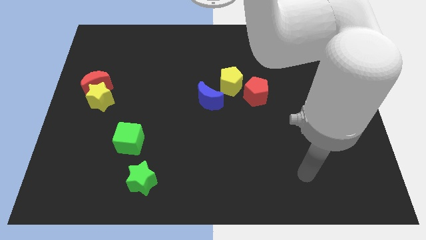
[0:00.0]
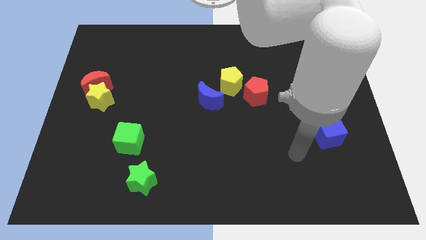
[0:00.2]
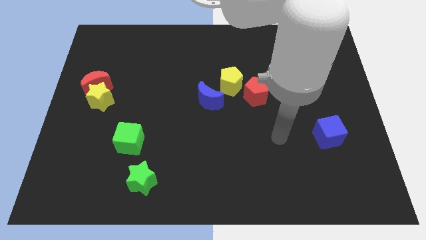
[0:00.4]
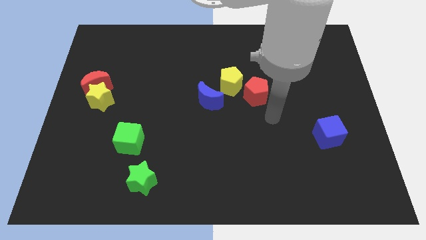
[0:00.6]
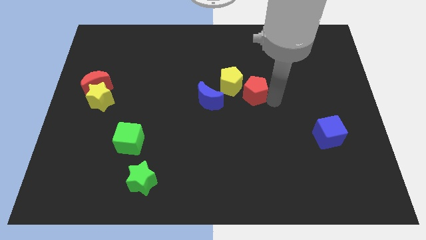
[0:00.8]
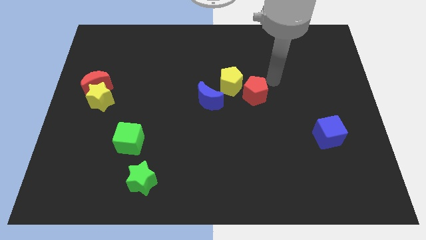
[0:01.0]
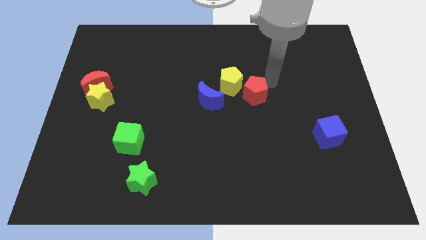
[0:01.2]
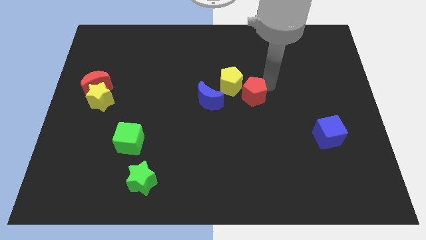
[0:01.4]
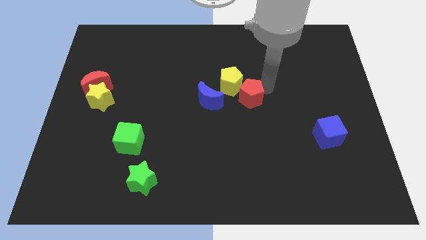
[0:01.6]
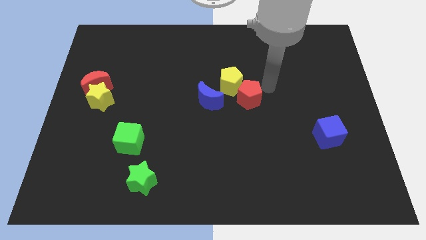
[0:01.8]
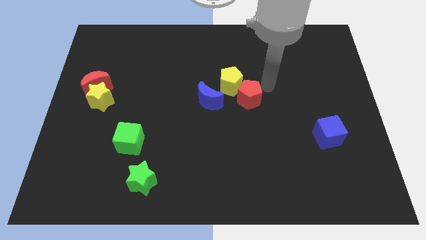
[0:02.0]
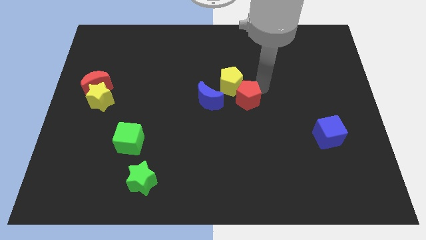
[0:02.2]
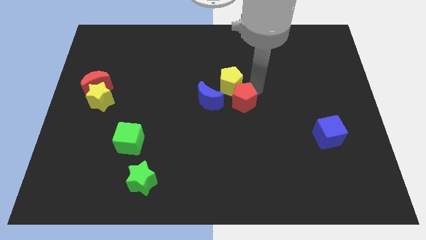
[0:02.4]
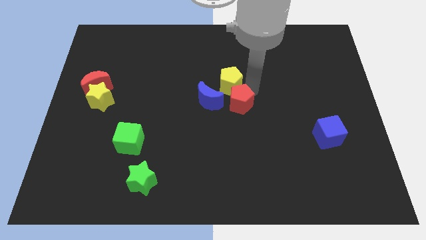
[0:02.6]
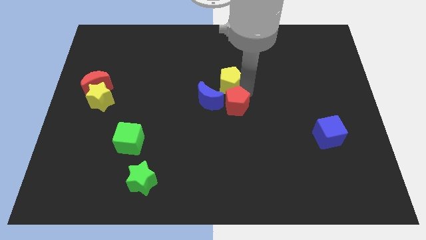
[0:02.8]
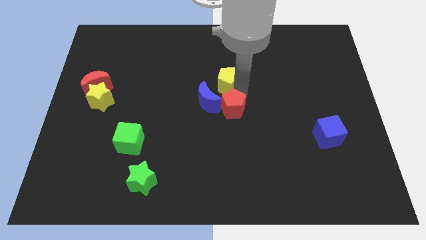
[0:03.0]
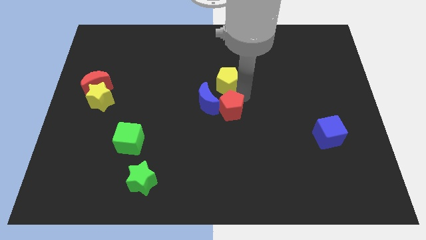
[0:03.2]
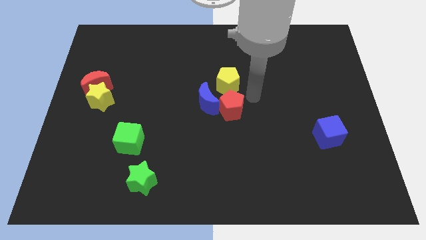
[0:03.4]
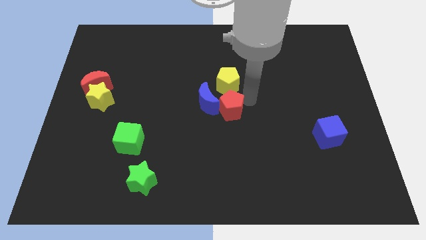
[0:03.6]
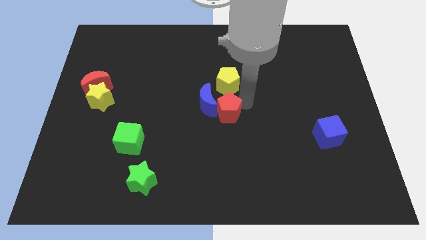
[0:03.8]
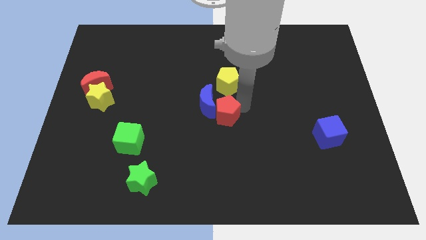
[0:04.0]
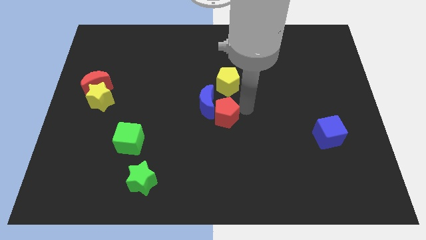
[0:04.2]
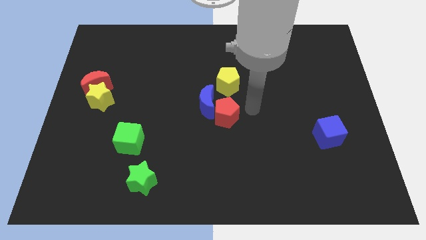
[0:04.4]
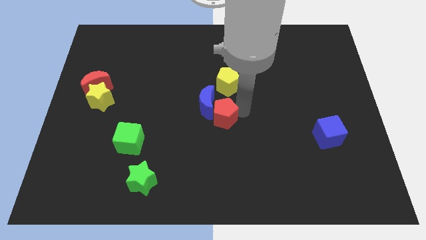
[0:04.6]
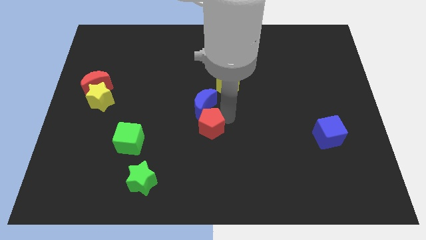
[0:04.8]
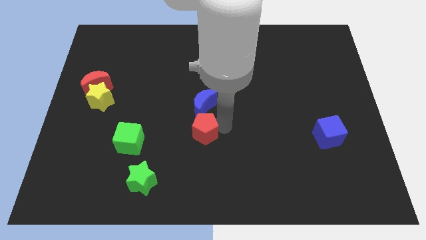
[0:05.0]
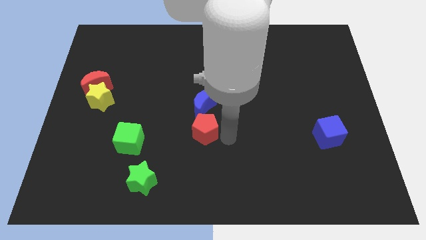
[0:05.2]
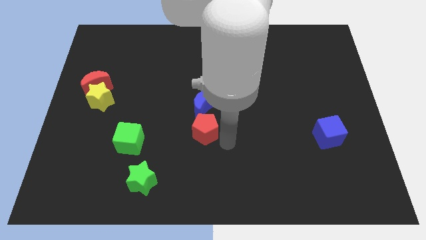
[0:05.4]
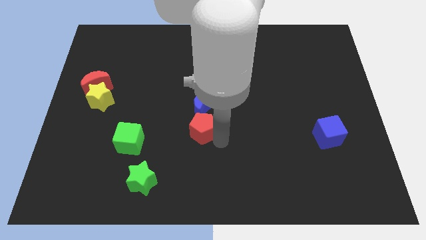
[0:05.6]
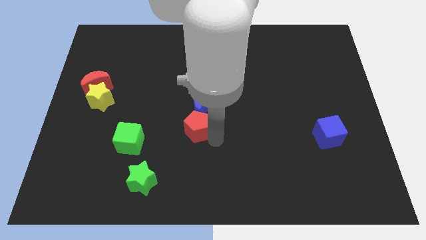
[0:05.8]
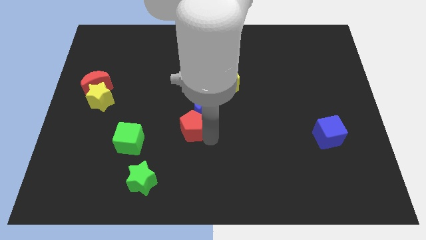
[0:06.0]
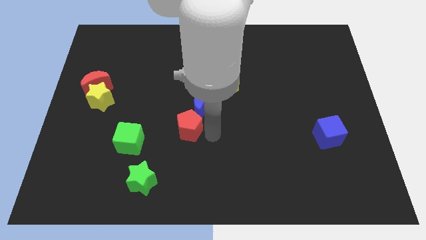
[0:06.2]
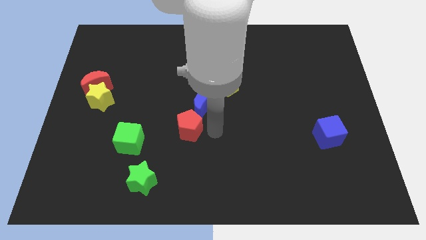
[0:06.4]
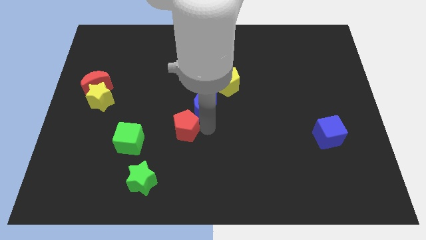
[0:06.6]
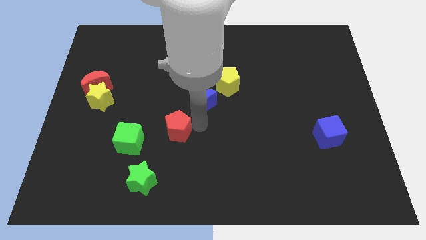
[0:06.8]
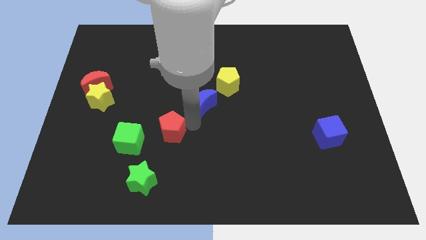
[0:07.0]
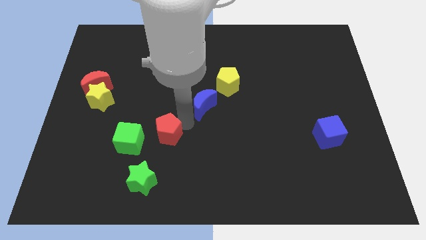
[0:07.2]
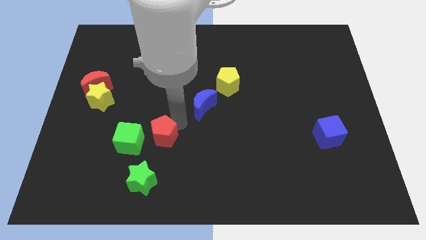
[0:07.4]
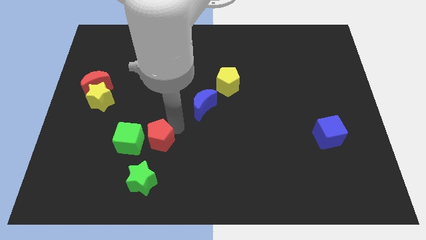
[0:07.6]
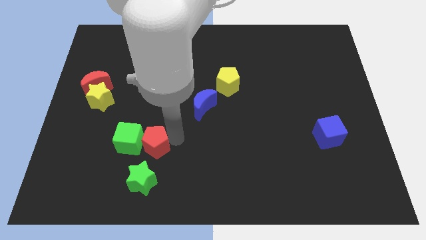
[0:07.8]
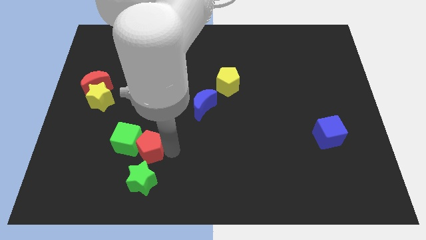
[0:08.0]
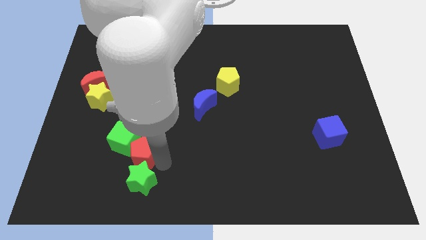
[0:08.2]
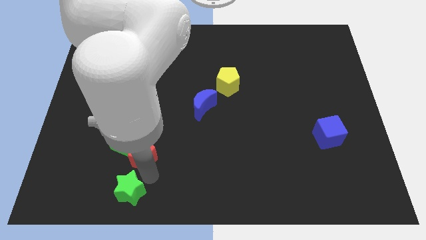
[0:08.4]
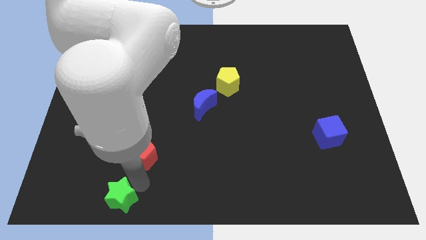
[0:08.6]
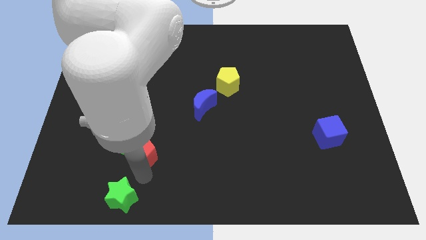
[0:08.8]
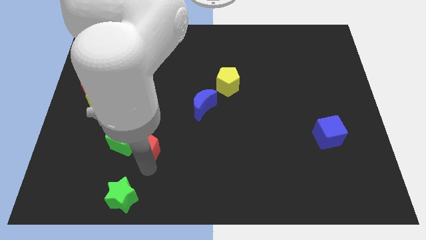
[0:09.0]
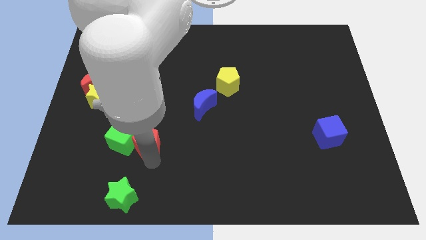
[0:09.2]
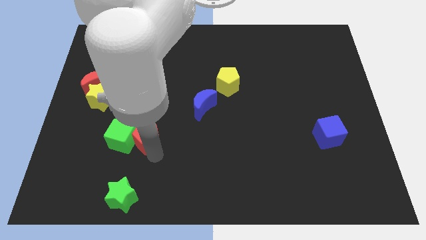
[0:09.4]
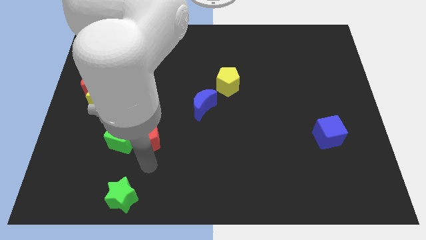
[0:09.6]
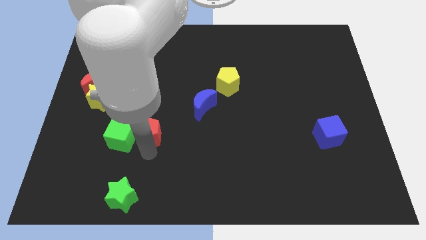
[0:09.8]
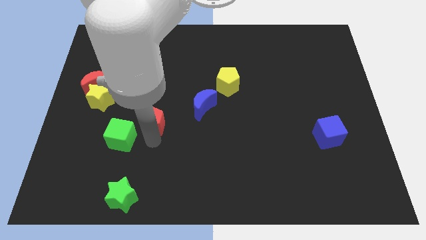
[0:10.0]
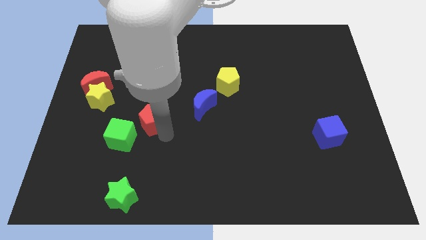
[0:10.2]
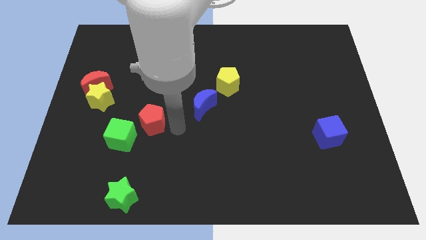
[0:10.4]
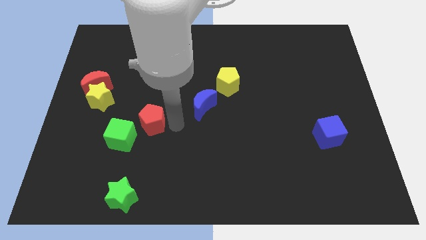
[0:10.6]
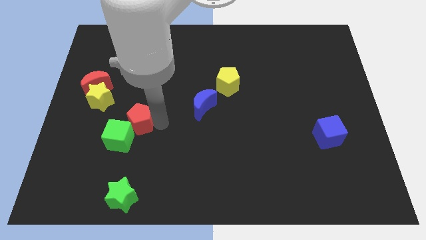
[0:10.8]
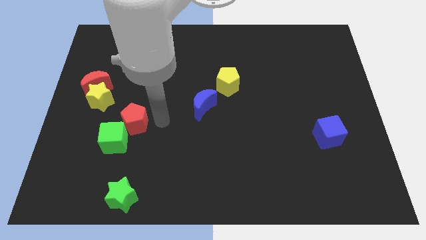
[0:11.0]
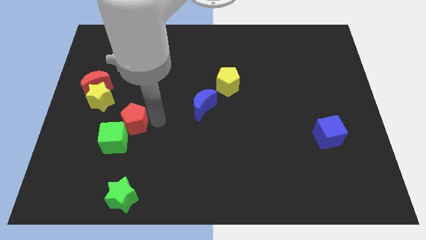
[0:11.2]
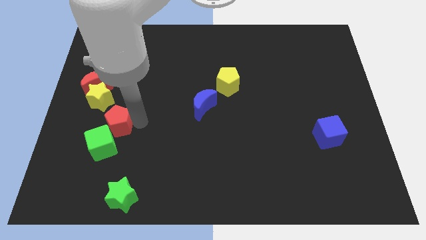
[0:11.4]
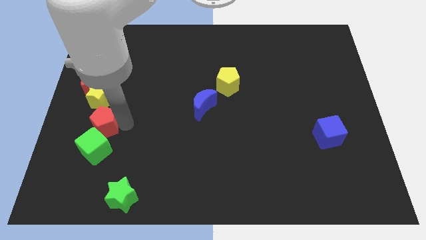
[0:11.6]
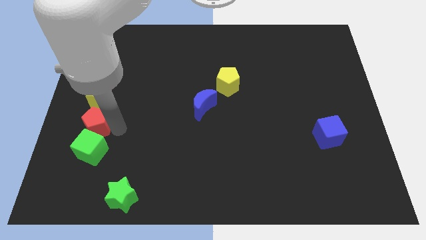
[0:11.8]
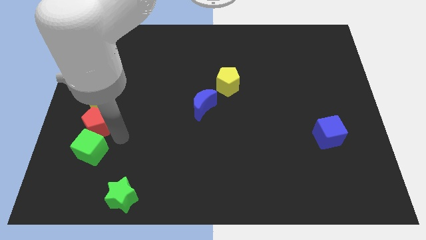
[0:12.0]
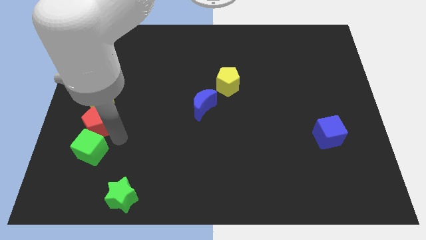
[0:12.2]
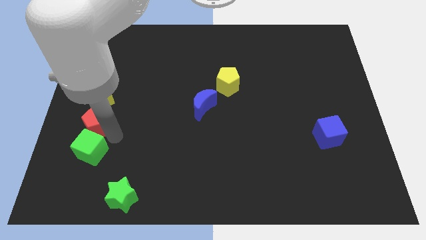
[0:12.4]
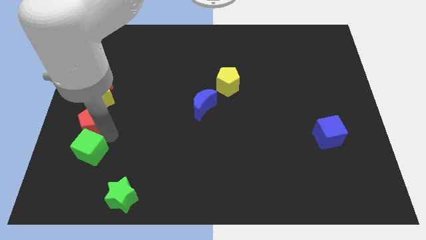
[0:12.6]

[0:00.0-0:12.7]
move the red pentagon to the left side of the board

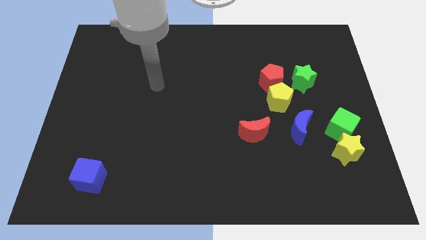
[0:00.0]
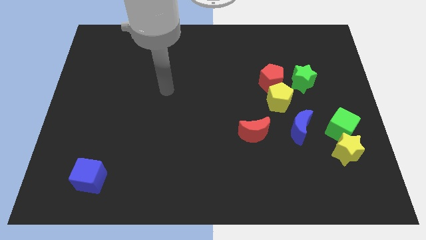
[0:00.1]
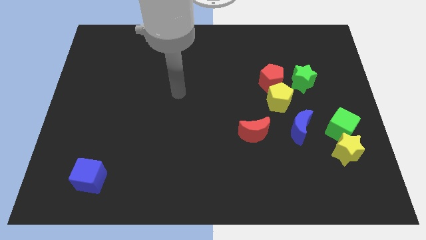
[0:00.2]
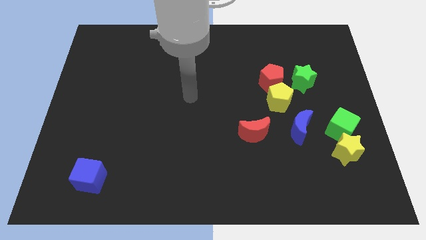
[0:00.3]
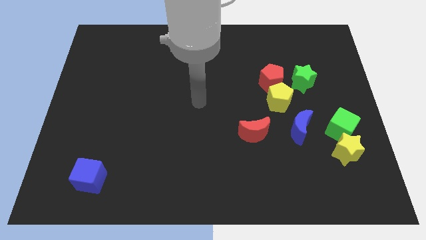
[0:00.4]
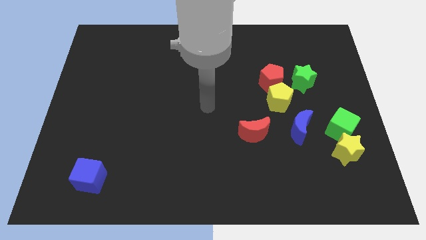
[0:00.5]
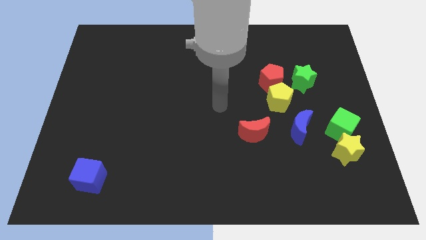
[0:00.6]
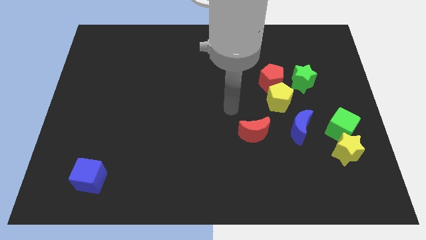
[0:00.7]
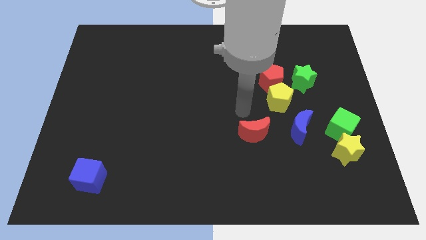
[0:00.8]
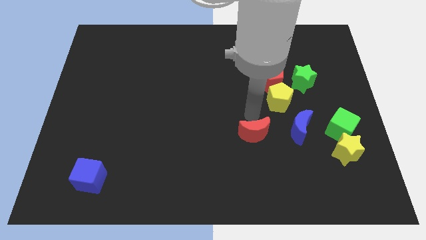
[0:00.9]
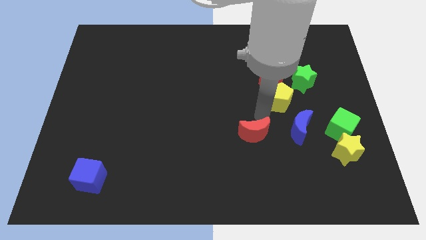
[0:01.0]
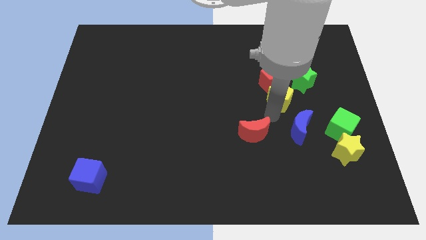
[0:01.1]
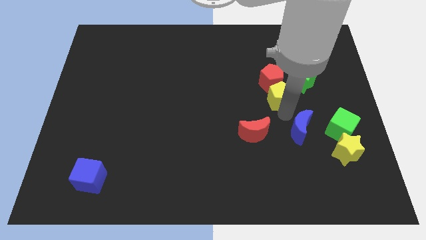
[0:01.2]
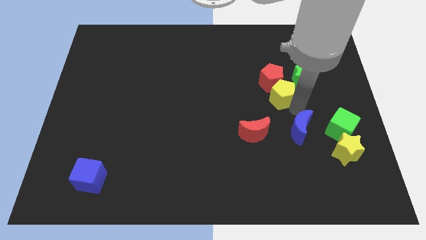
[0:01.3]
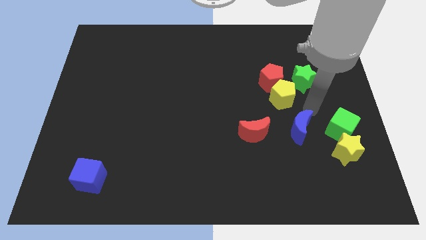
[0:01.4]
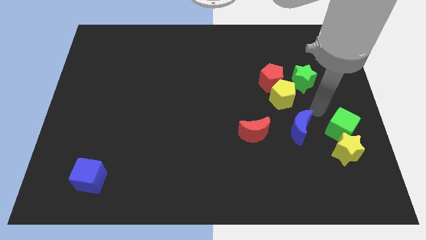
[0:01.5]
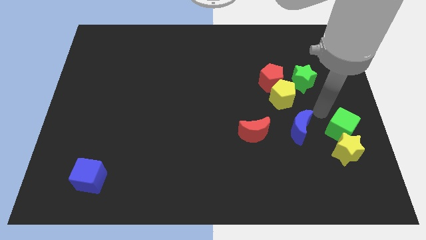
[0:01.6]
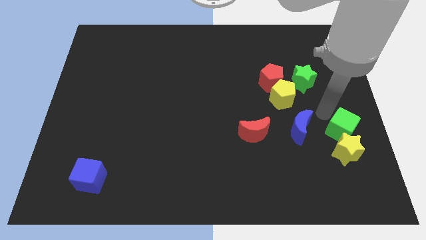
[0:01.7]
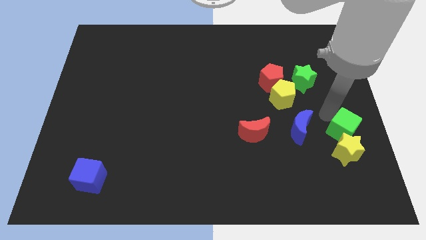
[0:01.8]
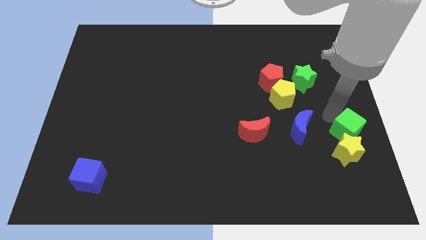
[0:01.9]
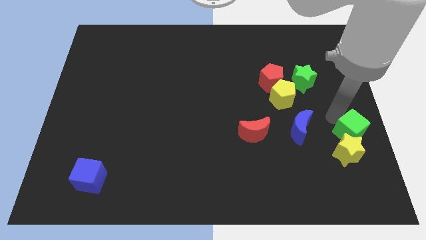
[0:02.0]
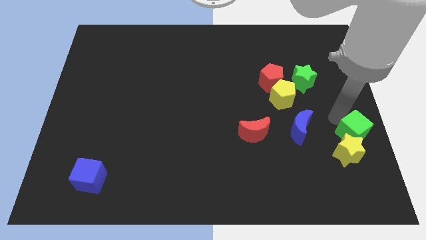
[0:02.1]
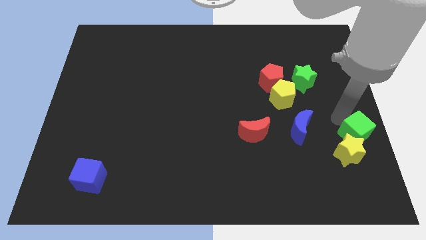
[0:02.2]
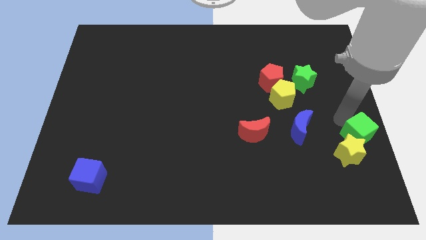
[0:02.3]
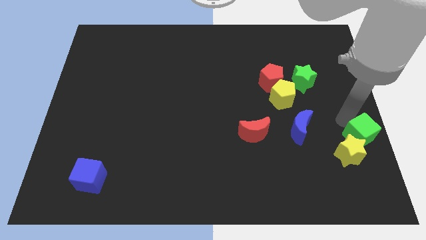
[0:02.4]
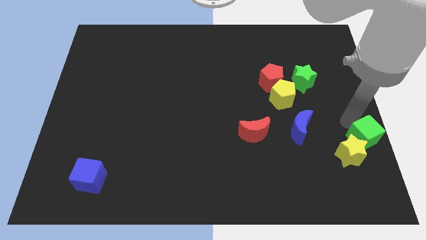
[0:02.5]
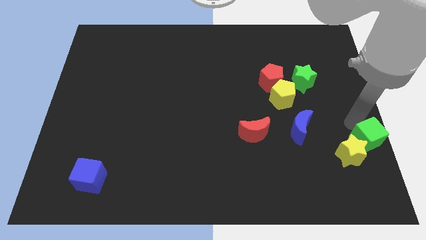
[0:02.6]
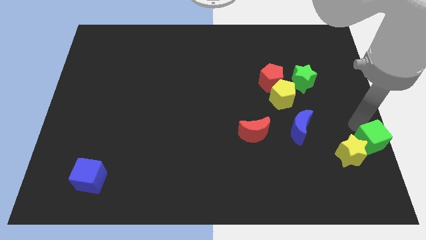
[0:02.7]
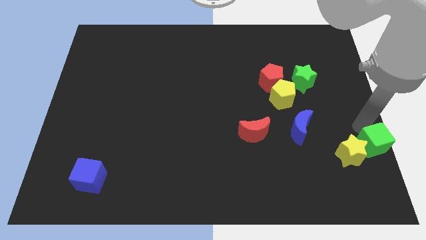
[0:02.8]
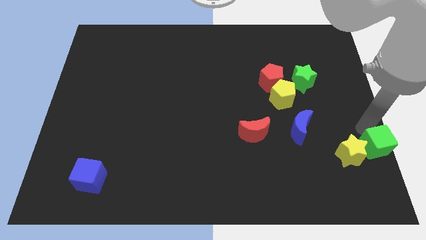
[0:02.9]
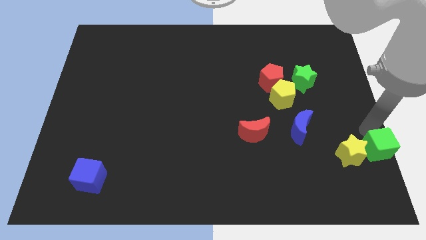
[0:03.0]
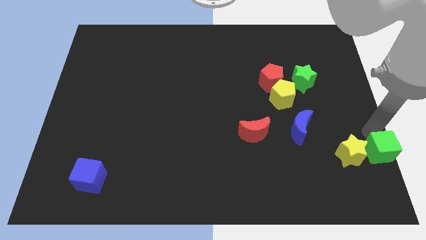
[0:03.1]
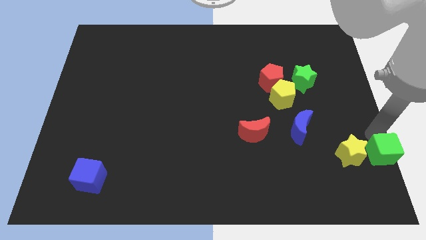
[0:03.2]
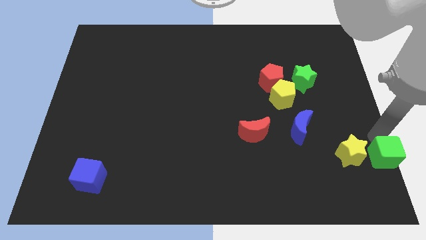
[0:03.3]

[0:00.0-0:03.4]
put the green cube to the bottom right
